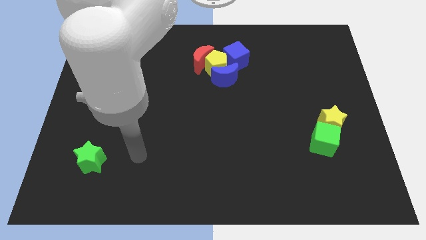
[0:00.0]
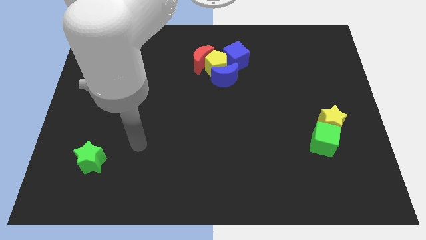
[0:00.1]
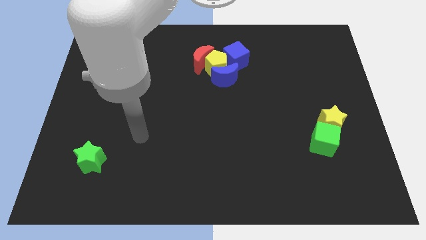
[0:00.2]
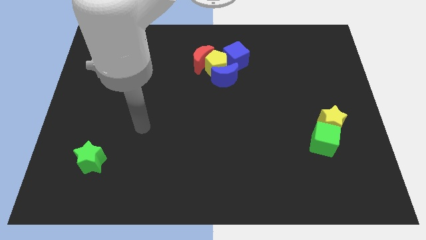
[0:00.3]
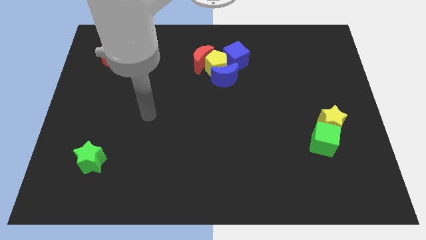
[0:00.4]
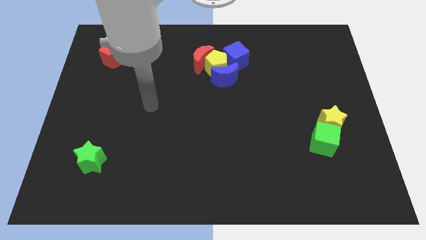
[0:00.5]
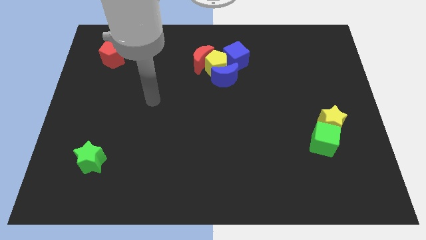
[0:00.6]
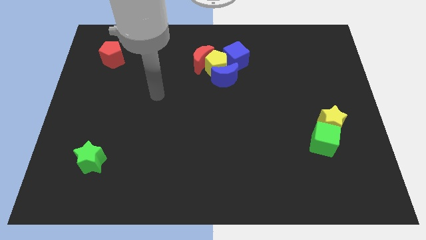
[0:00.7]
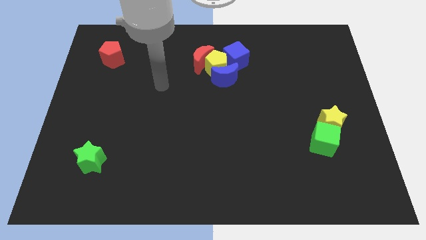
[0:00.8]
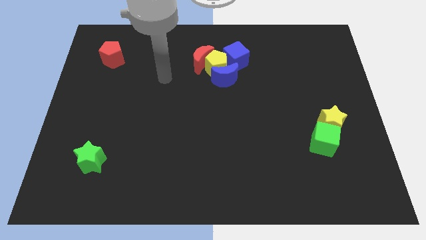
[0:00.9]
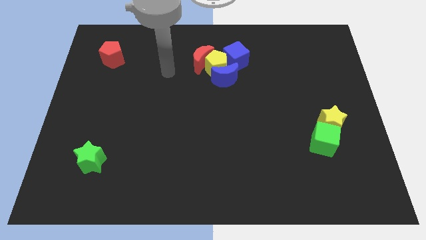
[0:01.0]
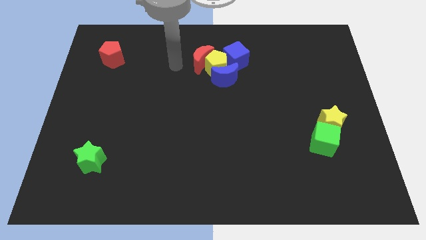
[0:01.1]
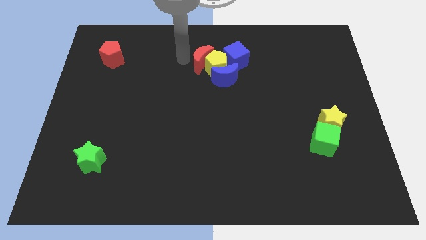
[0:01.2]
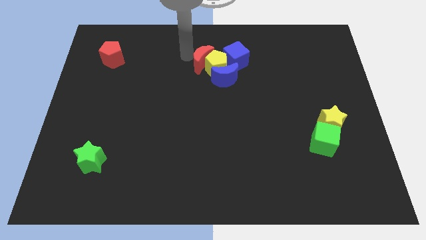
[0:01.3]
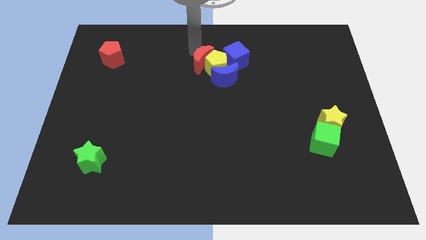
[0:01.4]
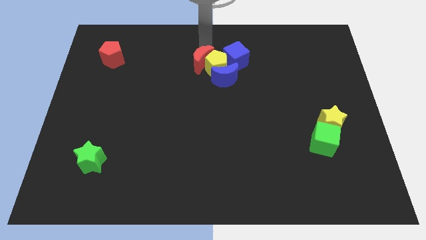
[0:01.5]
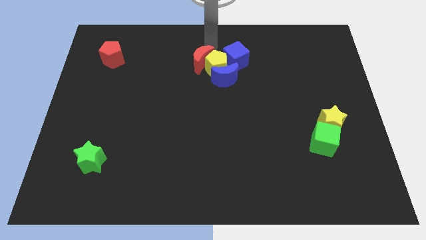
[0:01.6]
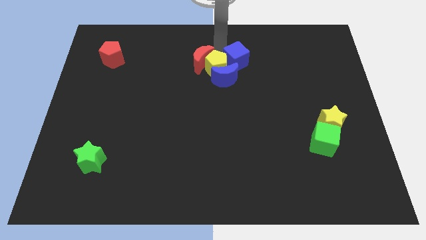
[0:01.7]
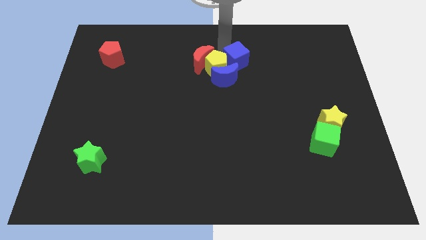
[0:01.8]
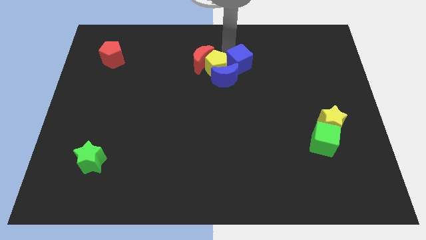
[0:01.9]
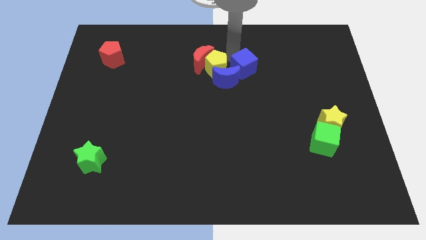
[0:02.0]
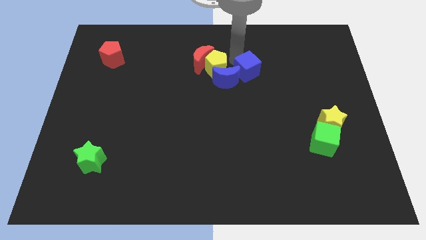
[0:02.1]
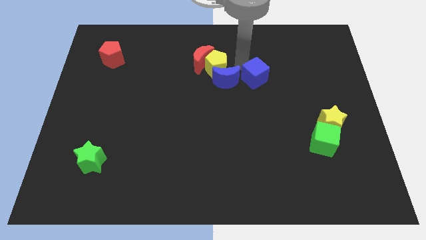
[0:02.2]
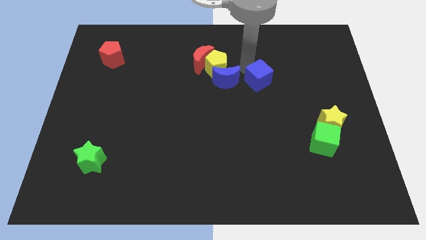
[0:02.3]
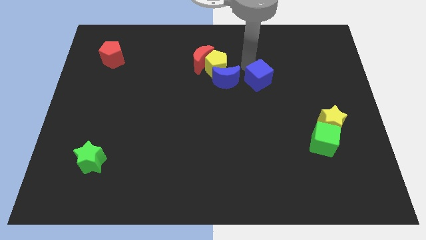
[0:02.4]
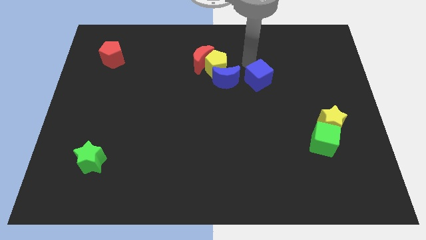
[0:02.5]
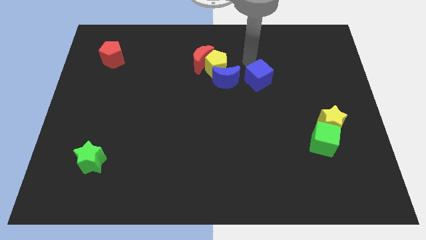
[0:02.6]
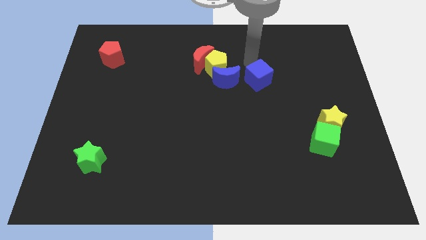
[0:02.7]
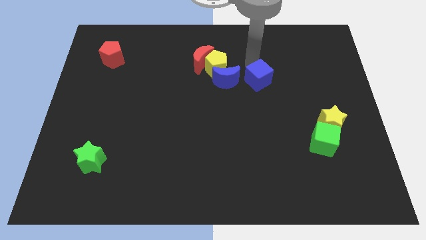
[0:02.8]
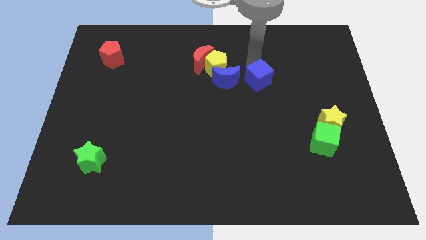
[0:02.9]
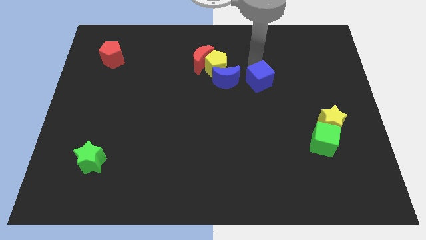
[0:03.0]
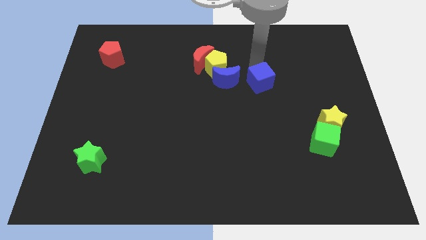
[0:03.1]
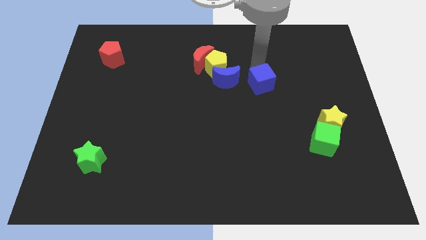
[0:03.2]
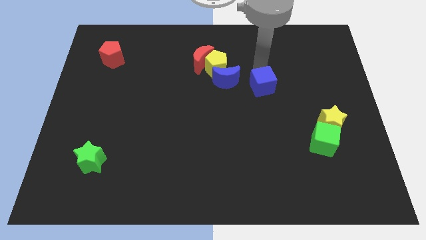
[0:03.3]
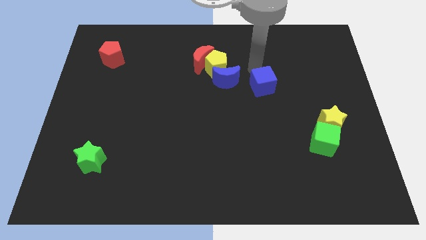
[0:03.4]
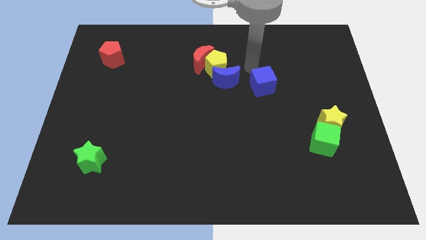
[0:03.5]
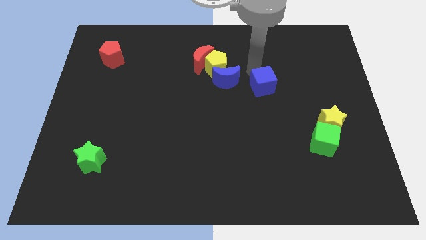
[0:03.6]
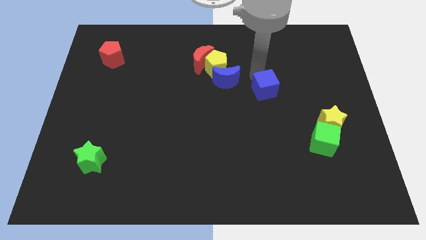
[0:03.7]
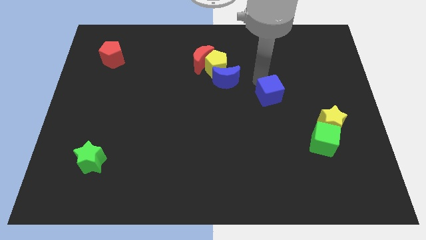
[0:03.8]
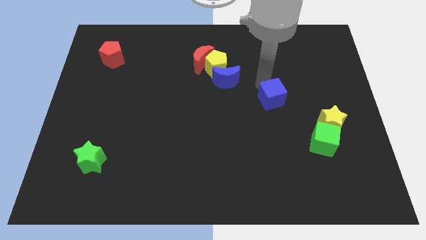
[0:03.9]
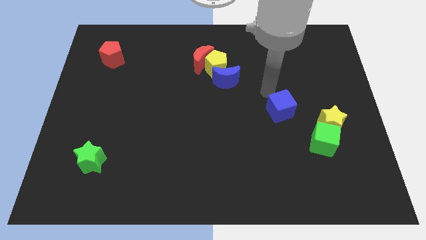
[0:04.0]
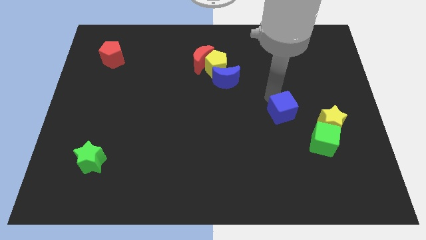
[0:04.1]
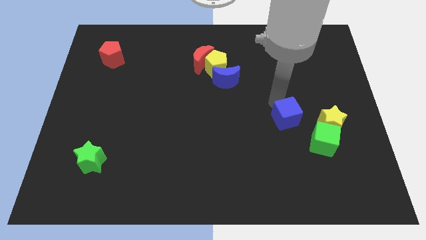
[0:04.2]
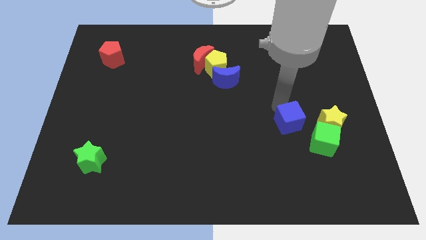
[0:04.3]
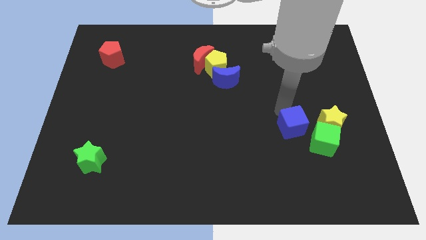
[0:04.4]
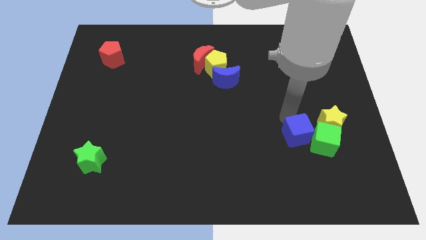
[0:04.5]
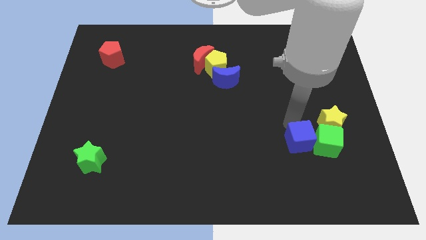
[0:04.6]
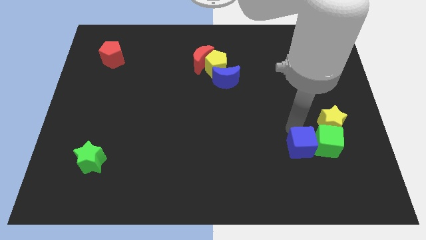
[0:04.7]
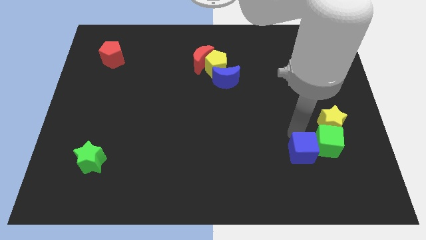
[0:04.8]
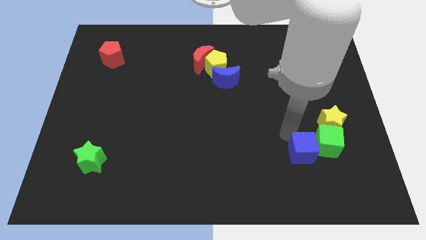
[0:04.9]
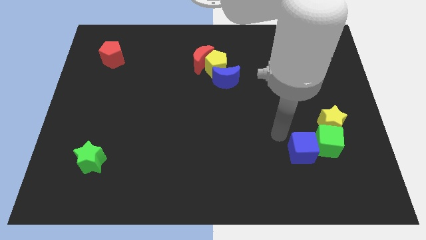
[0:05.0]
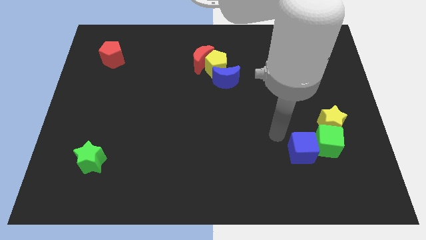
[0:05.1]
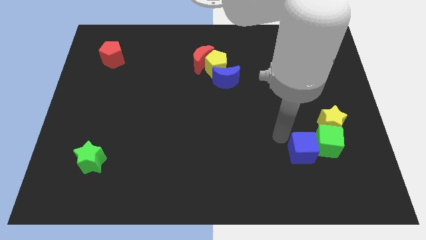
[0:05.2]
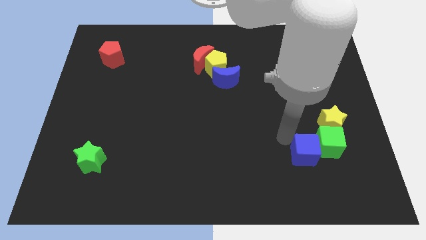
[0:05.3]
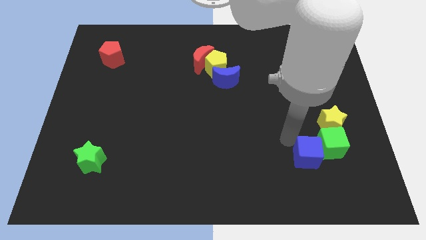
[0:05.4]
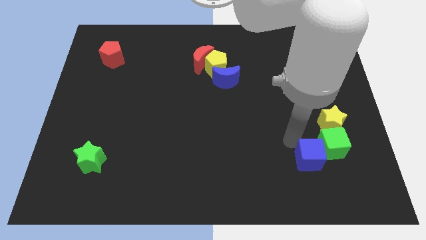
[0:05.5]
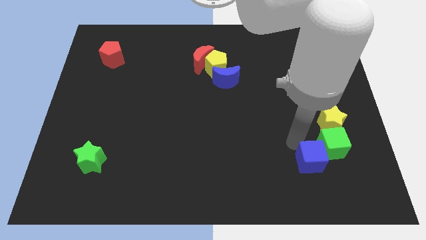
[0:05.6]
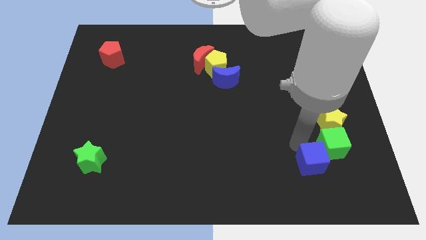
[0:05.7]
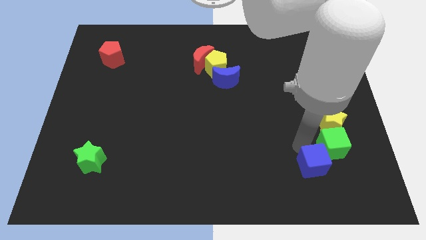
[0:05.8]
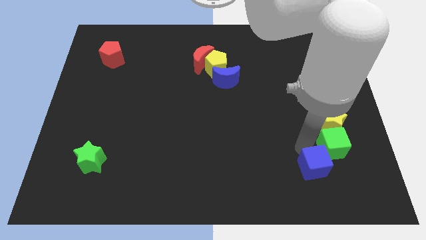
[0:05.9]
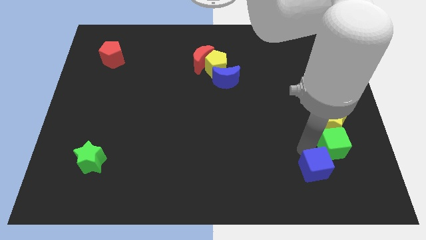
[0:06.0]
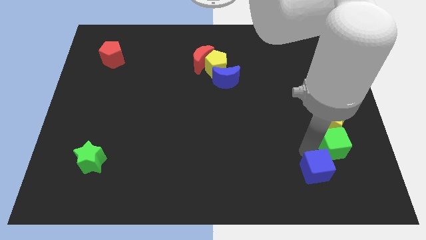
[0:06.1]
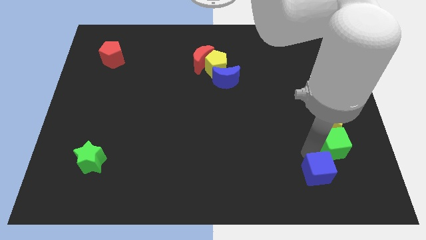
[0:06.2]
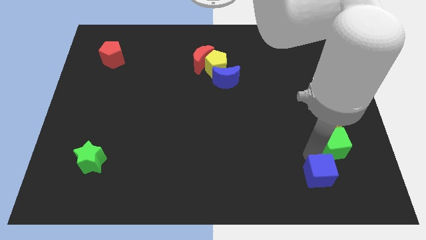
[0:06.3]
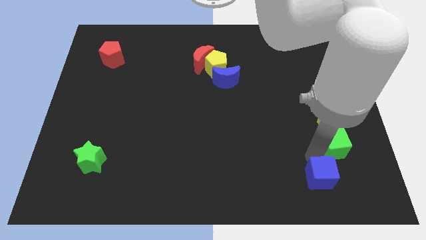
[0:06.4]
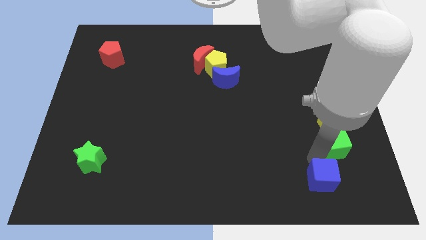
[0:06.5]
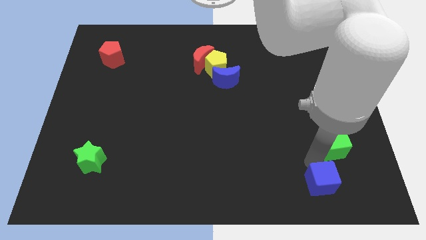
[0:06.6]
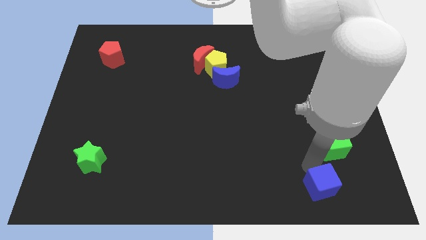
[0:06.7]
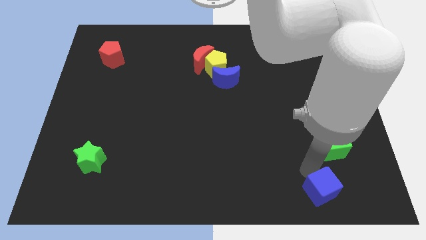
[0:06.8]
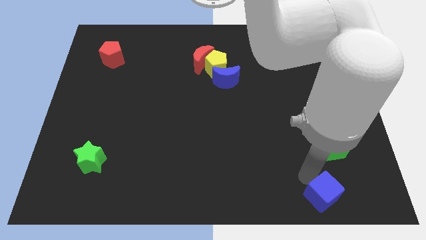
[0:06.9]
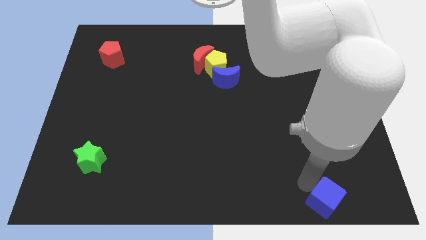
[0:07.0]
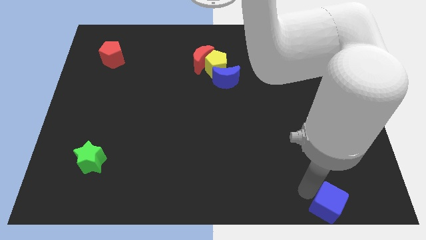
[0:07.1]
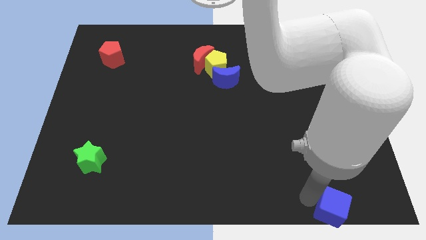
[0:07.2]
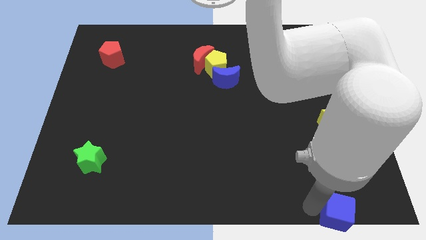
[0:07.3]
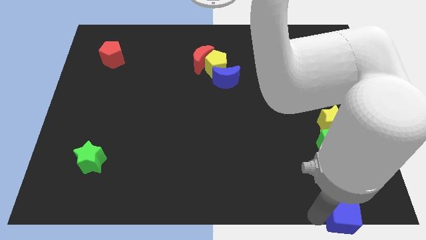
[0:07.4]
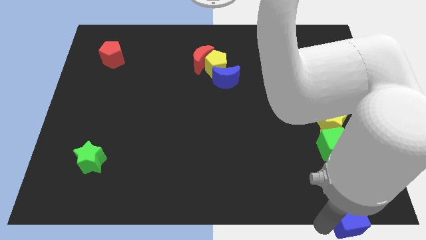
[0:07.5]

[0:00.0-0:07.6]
slide the blue cube to the bottom right of the board
